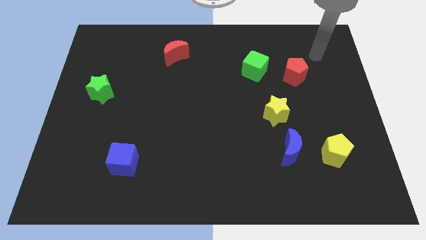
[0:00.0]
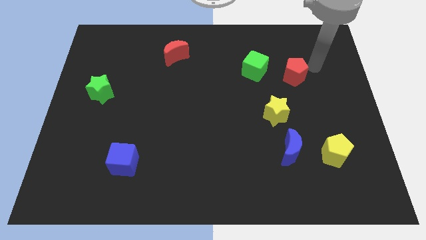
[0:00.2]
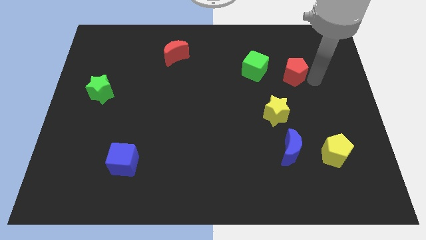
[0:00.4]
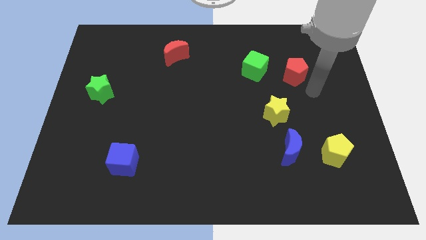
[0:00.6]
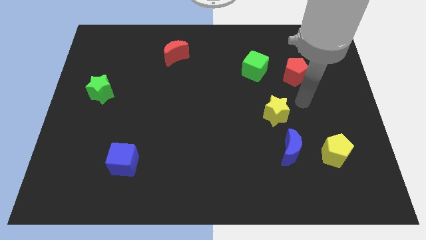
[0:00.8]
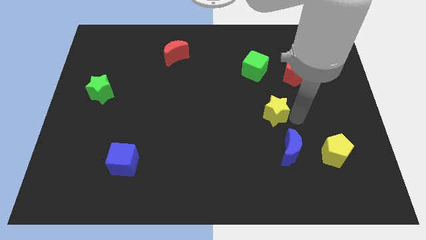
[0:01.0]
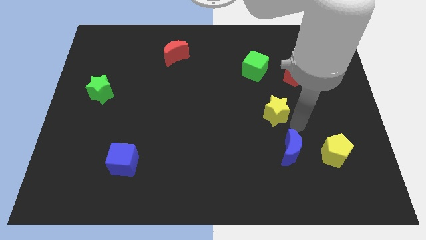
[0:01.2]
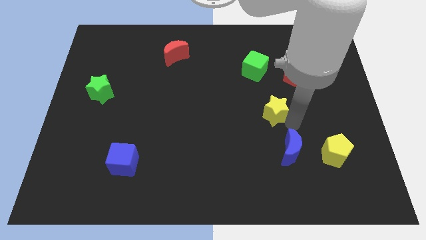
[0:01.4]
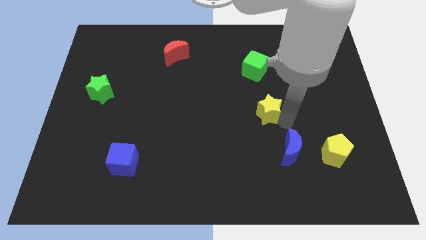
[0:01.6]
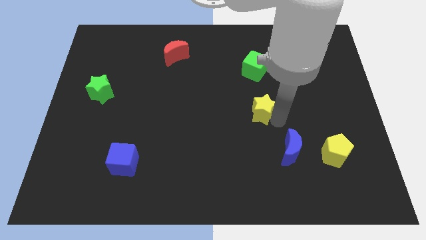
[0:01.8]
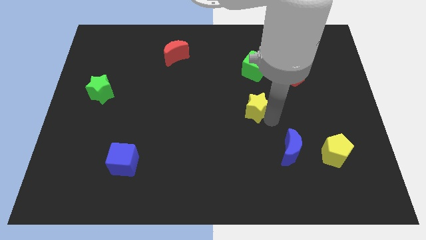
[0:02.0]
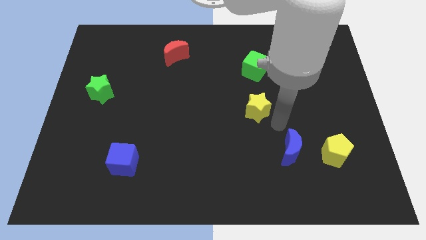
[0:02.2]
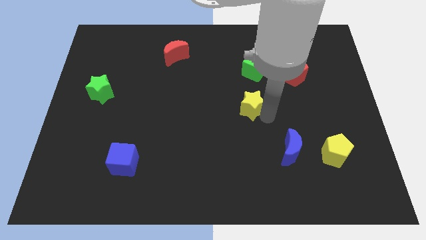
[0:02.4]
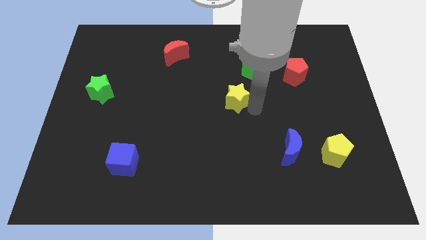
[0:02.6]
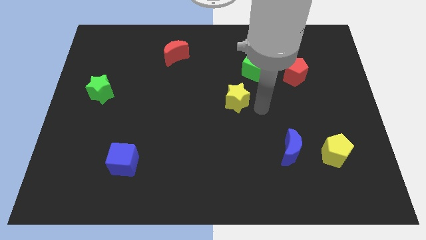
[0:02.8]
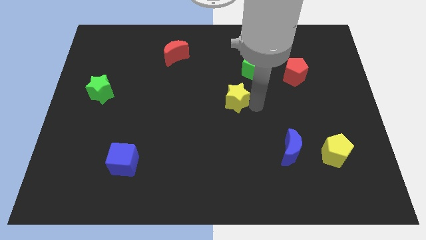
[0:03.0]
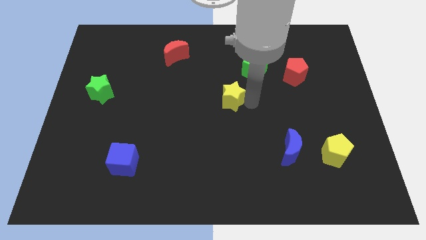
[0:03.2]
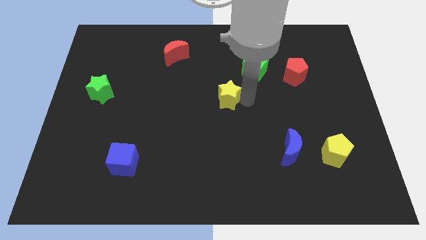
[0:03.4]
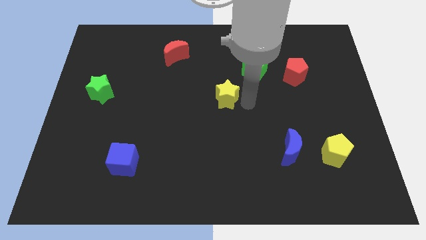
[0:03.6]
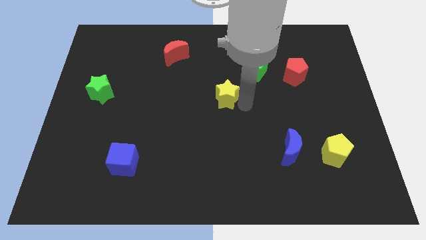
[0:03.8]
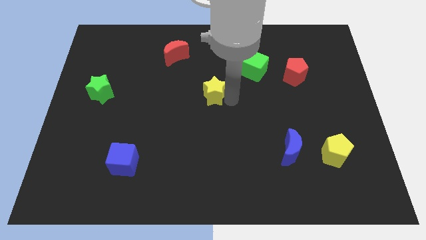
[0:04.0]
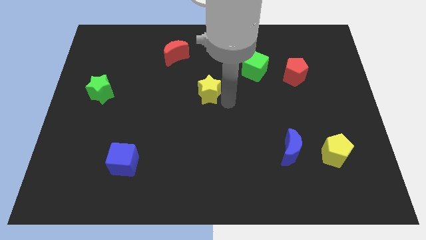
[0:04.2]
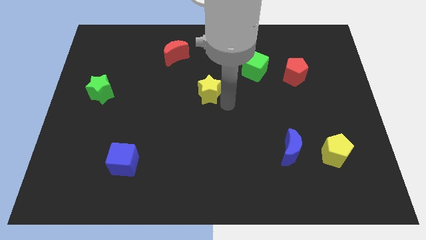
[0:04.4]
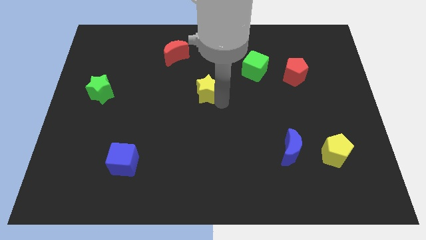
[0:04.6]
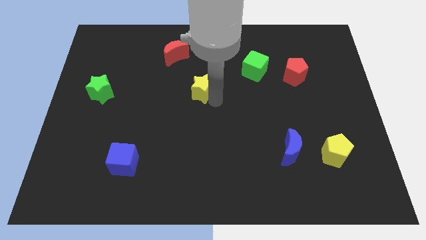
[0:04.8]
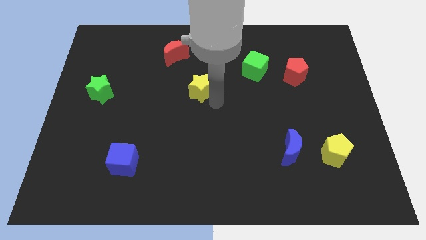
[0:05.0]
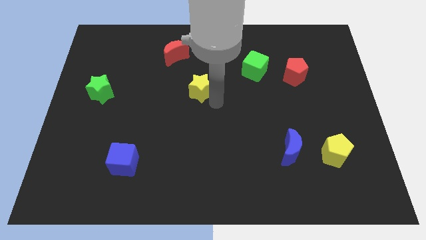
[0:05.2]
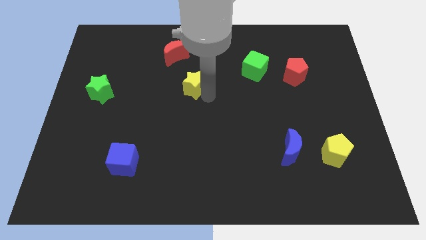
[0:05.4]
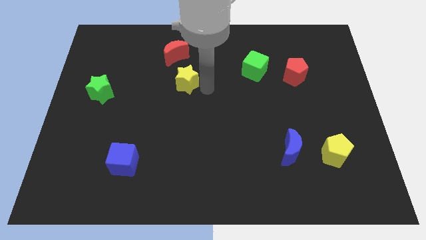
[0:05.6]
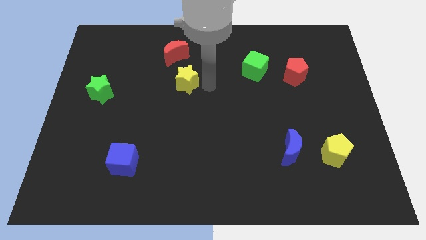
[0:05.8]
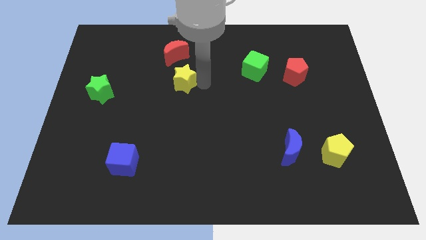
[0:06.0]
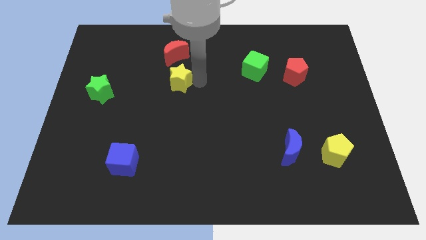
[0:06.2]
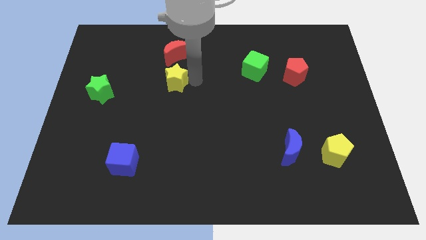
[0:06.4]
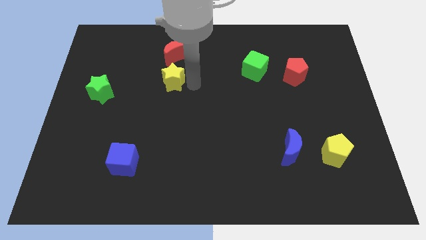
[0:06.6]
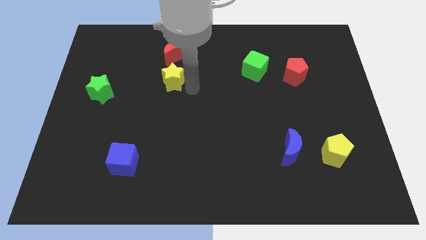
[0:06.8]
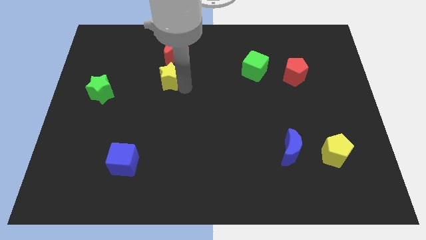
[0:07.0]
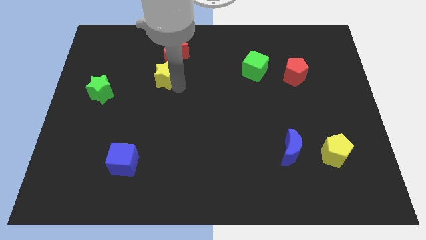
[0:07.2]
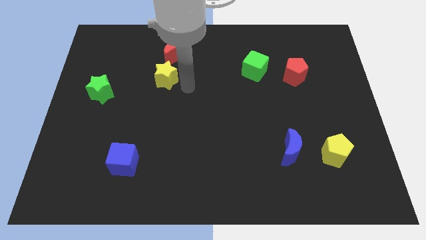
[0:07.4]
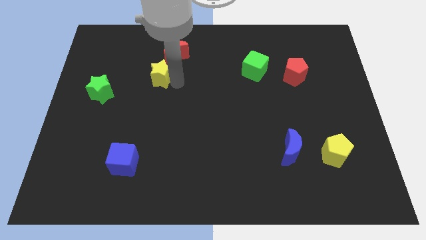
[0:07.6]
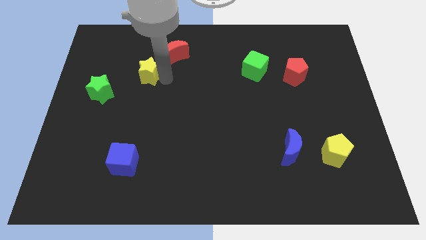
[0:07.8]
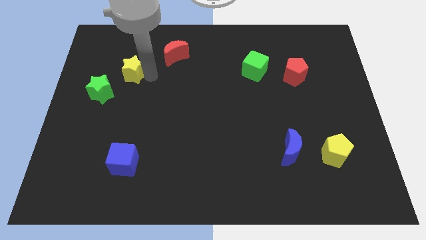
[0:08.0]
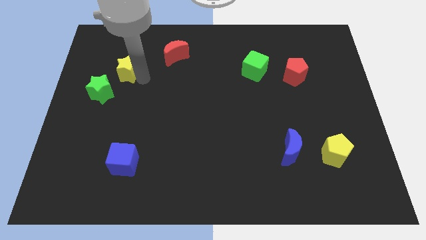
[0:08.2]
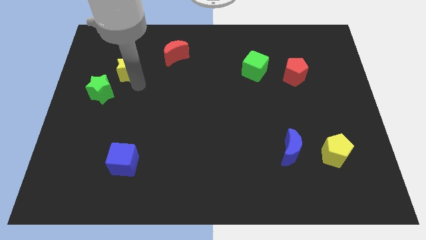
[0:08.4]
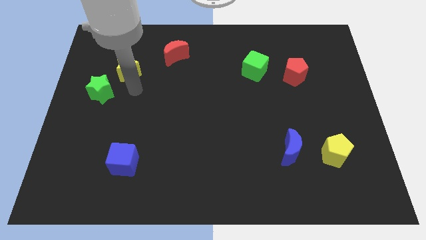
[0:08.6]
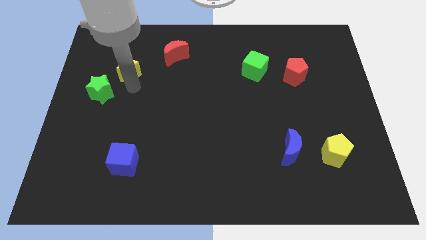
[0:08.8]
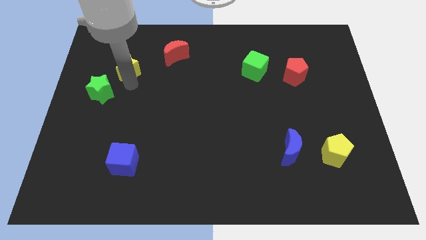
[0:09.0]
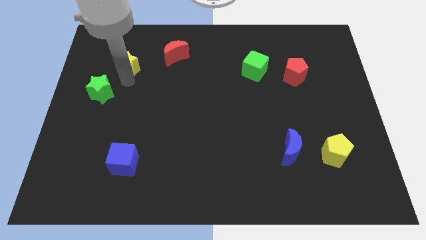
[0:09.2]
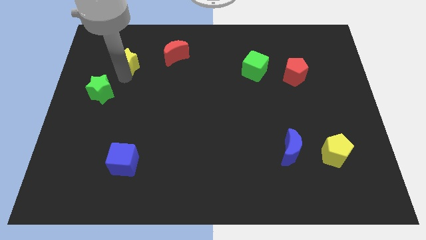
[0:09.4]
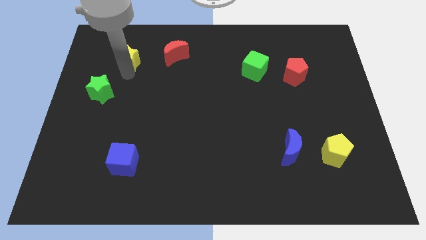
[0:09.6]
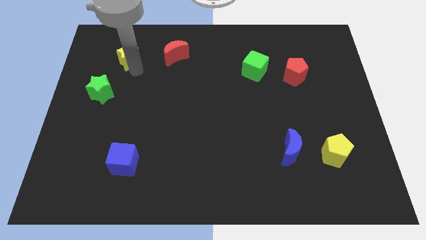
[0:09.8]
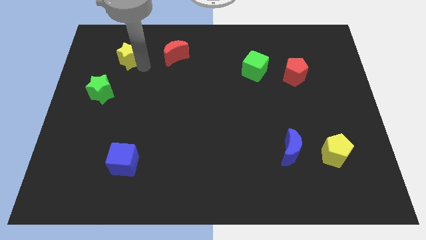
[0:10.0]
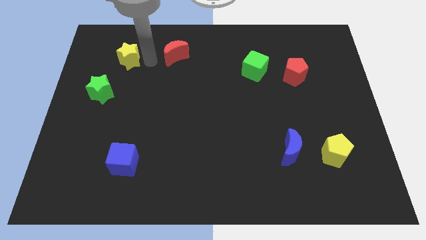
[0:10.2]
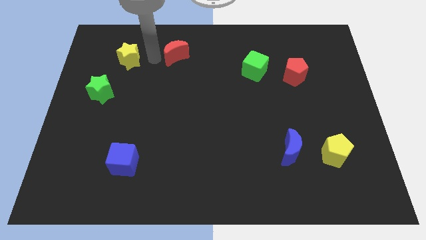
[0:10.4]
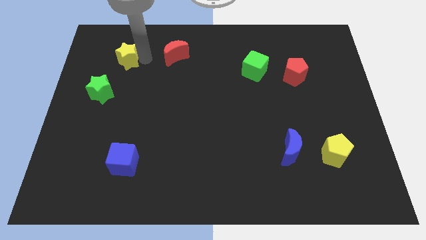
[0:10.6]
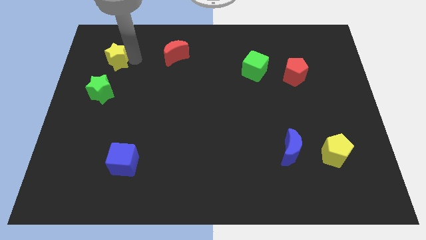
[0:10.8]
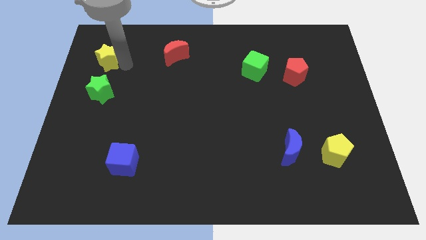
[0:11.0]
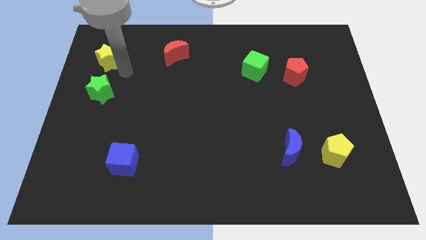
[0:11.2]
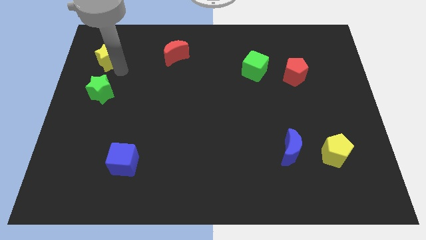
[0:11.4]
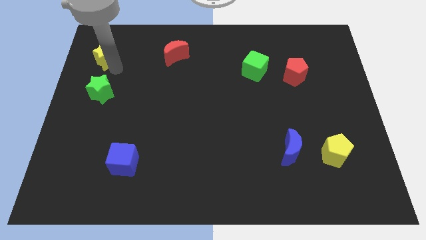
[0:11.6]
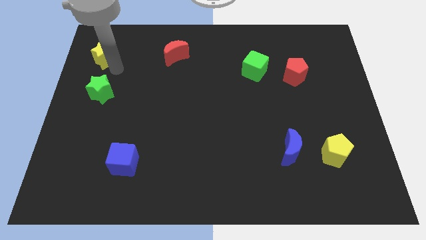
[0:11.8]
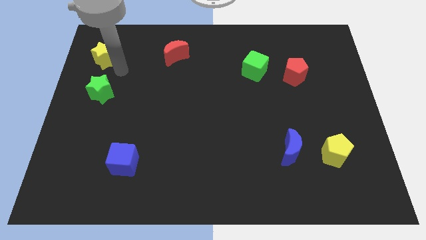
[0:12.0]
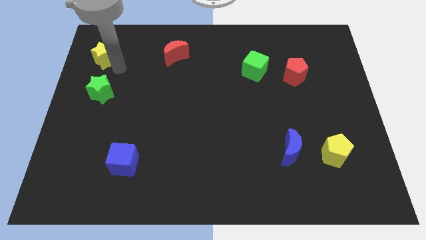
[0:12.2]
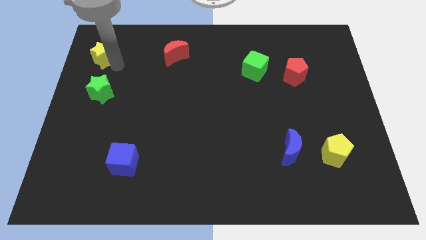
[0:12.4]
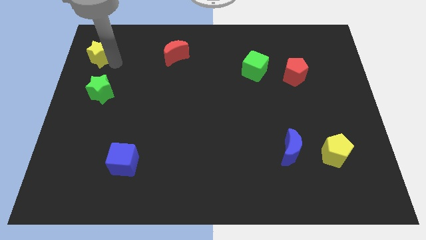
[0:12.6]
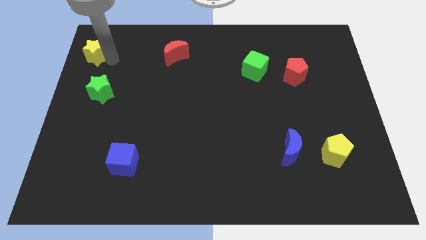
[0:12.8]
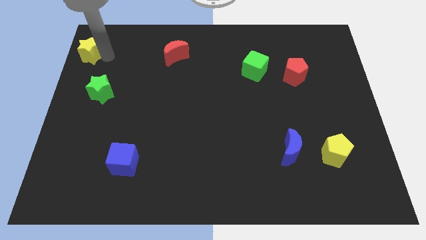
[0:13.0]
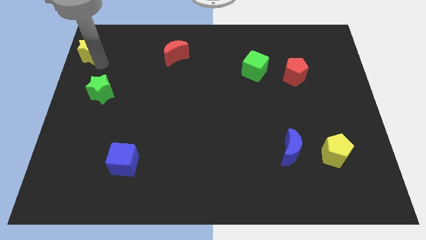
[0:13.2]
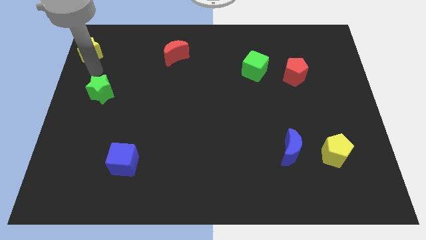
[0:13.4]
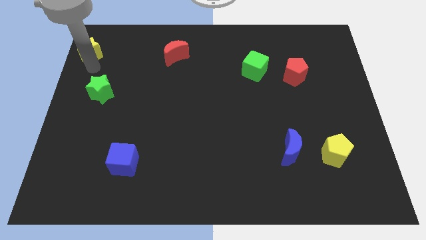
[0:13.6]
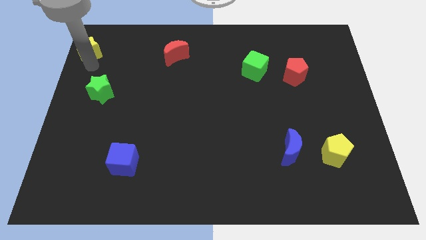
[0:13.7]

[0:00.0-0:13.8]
put the yellow star to the top left of the board
